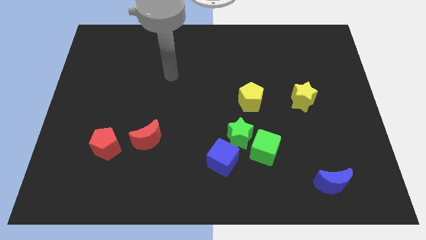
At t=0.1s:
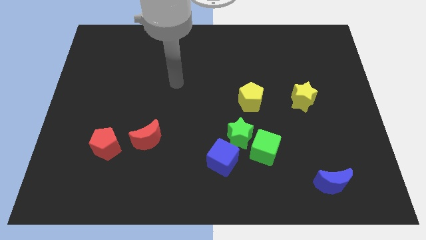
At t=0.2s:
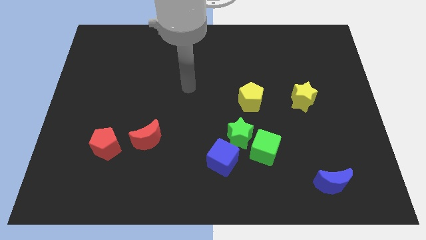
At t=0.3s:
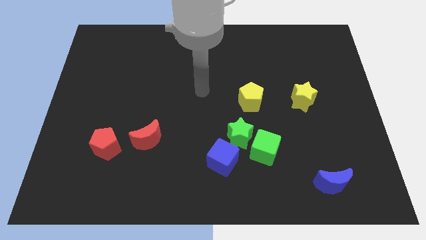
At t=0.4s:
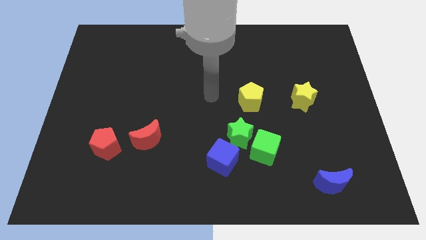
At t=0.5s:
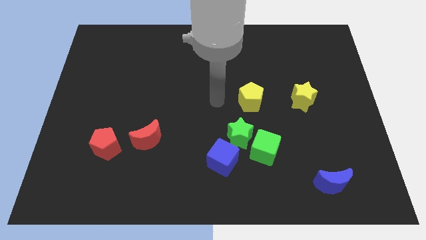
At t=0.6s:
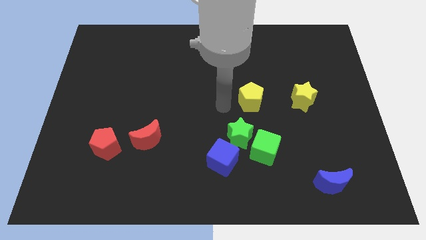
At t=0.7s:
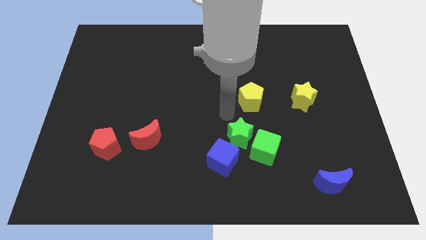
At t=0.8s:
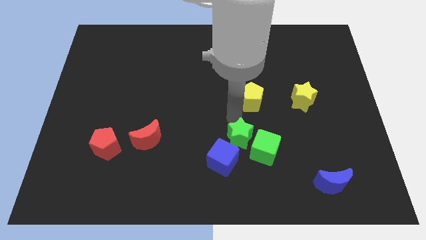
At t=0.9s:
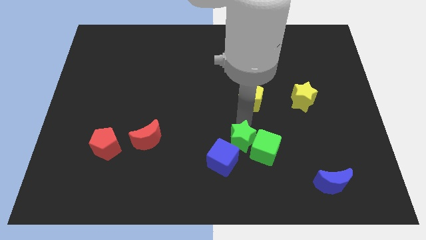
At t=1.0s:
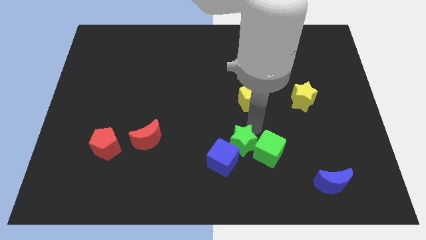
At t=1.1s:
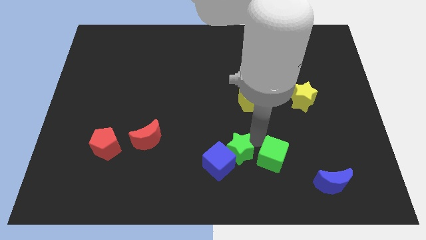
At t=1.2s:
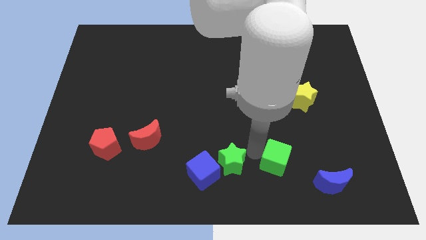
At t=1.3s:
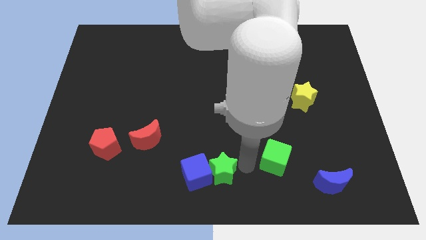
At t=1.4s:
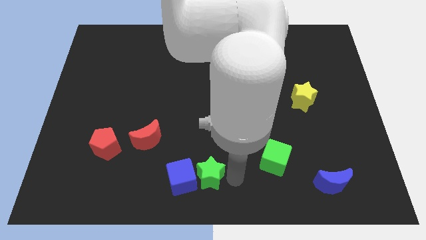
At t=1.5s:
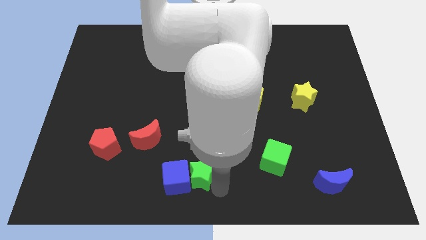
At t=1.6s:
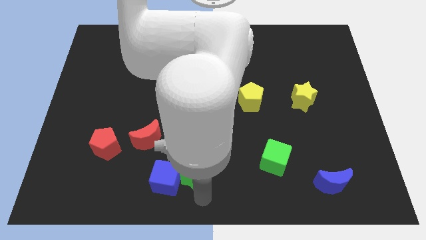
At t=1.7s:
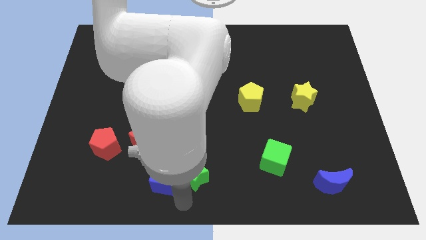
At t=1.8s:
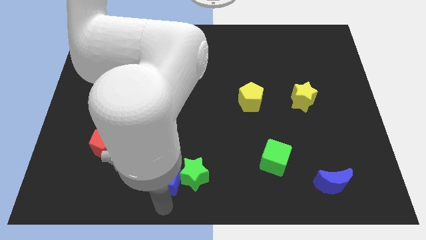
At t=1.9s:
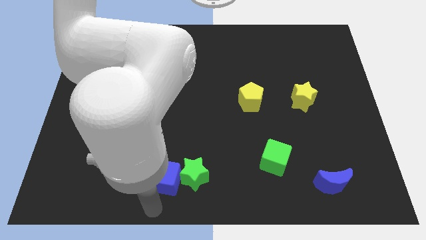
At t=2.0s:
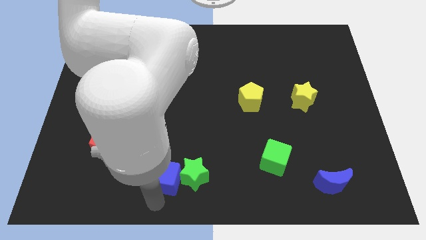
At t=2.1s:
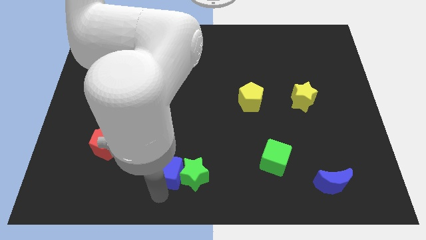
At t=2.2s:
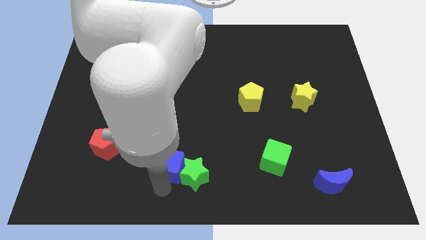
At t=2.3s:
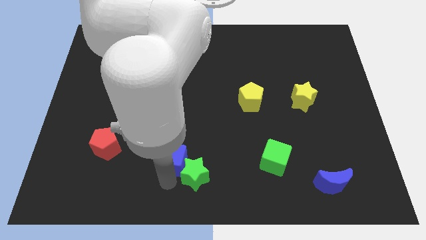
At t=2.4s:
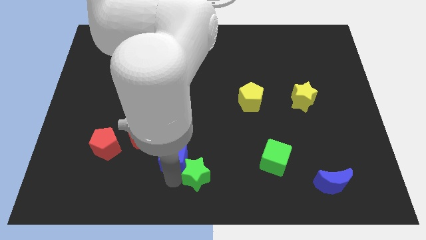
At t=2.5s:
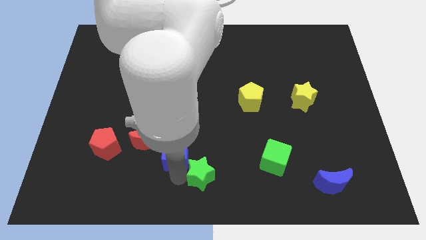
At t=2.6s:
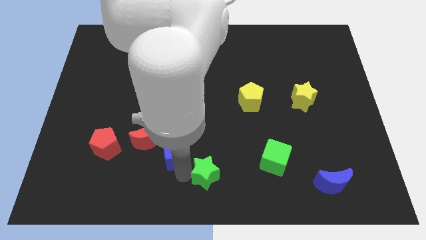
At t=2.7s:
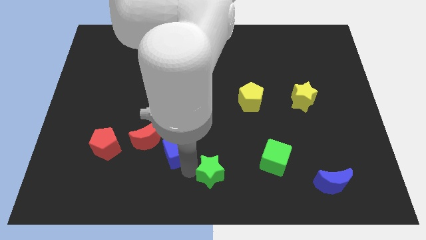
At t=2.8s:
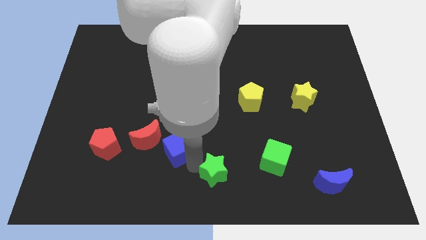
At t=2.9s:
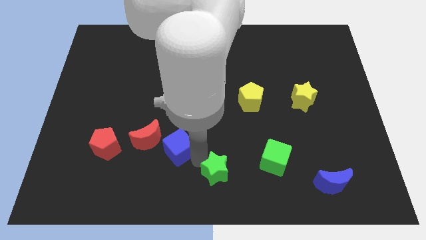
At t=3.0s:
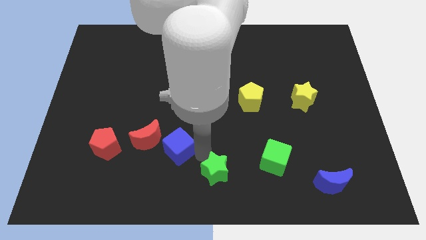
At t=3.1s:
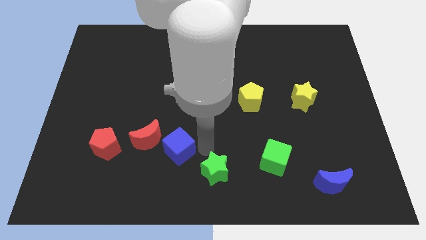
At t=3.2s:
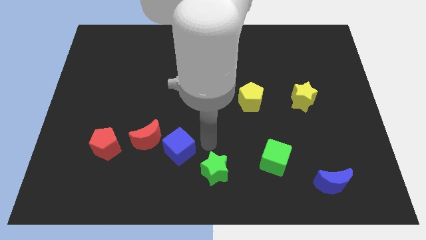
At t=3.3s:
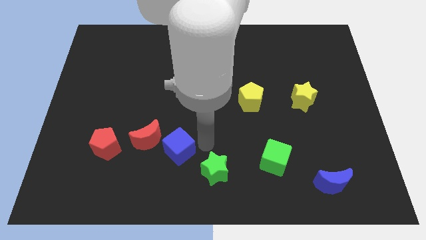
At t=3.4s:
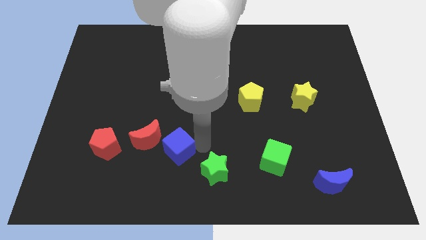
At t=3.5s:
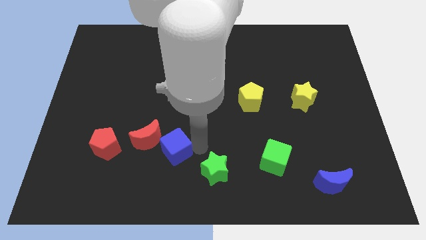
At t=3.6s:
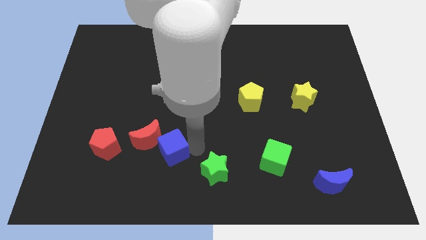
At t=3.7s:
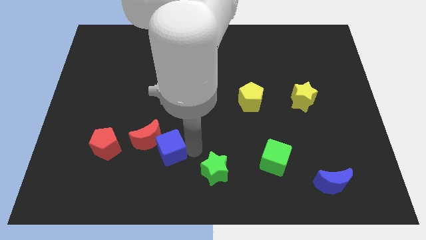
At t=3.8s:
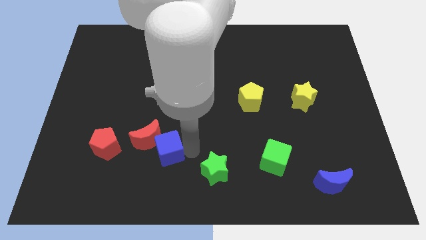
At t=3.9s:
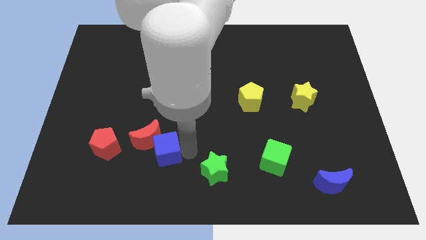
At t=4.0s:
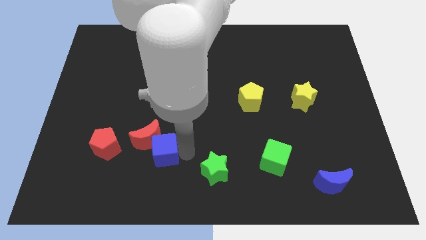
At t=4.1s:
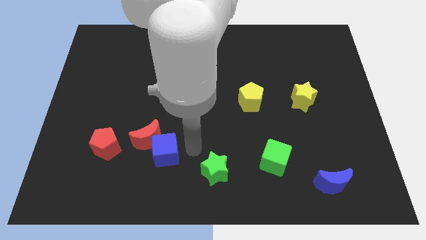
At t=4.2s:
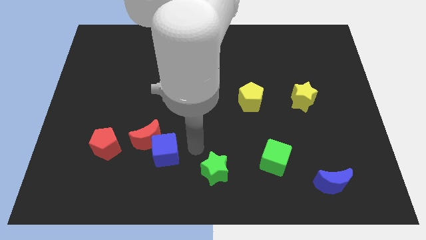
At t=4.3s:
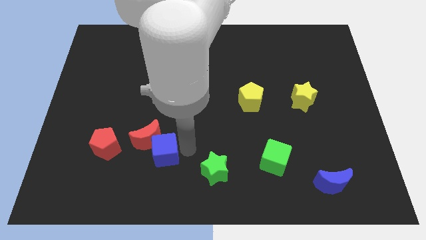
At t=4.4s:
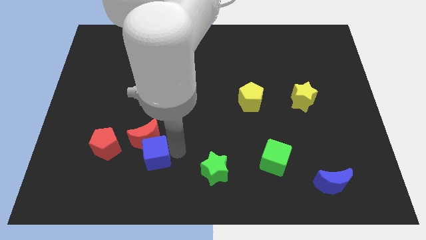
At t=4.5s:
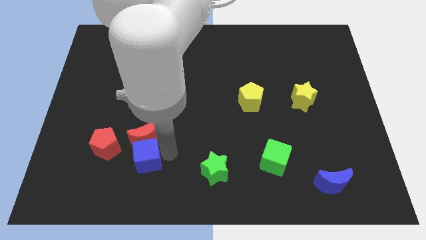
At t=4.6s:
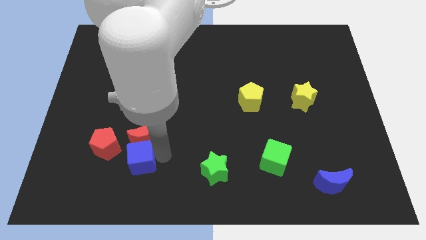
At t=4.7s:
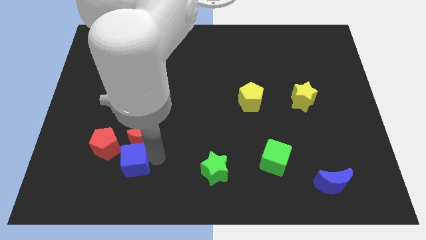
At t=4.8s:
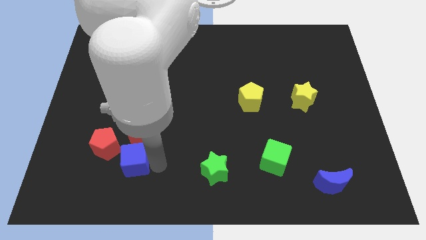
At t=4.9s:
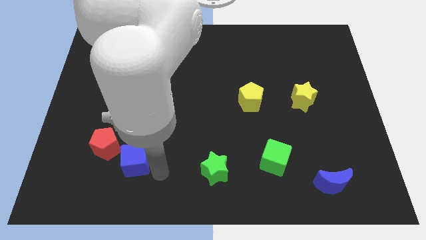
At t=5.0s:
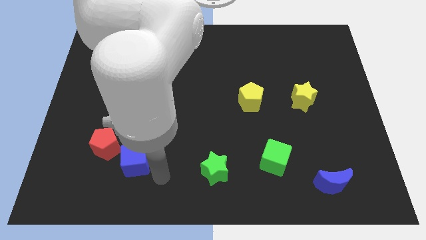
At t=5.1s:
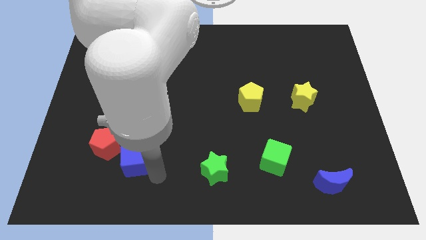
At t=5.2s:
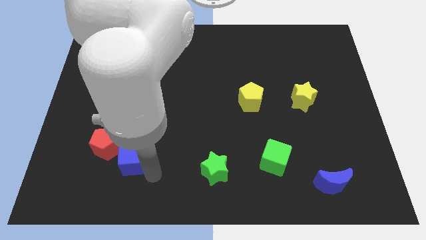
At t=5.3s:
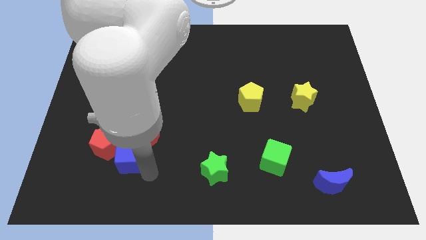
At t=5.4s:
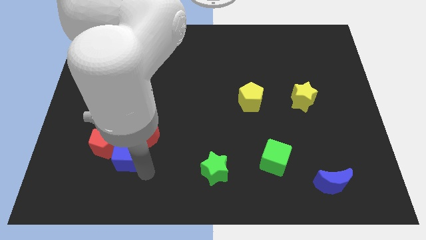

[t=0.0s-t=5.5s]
push the blue cube towards the red pentagon

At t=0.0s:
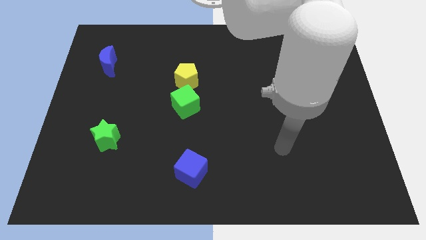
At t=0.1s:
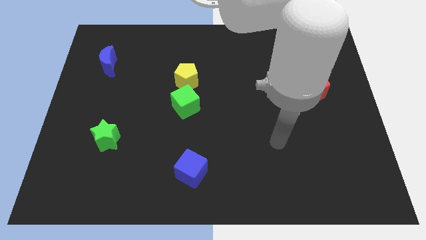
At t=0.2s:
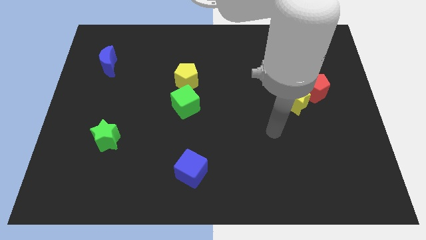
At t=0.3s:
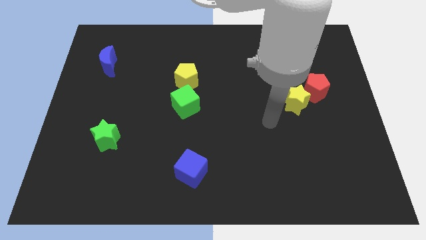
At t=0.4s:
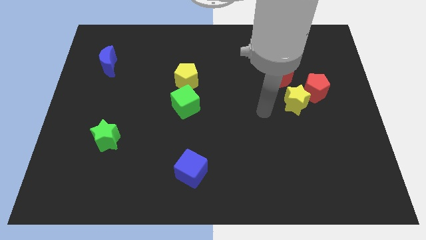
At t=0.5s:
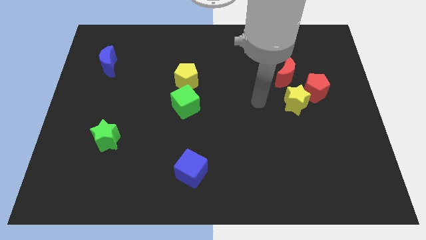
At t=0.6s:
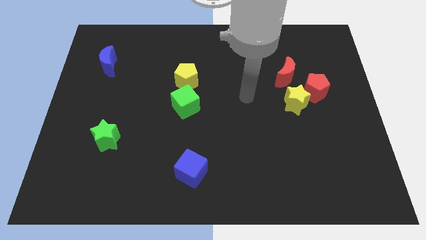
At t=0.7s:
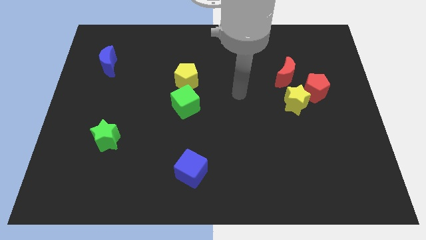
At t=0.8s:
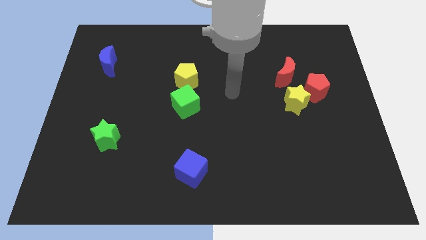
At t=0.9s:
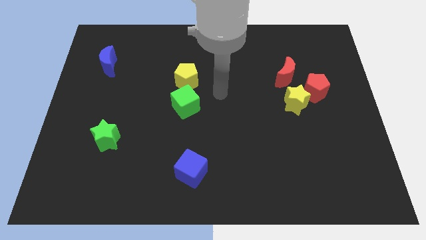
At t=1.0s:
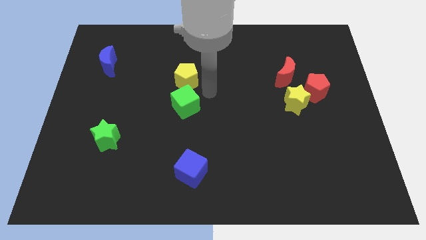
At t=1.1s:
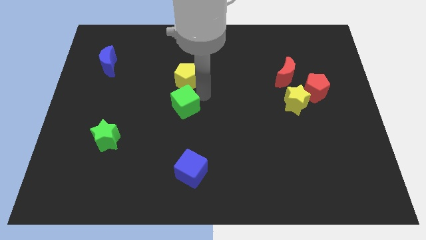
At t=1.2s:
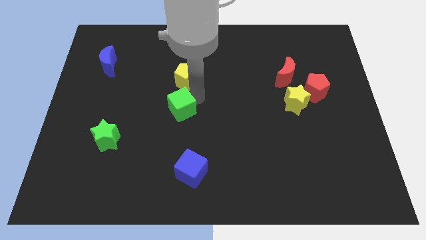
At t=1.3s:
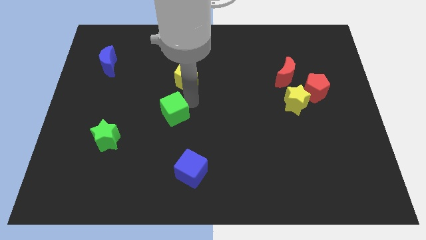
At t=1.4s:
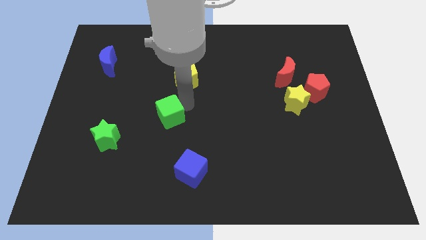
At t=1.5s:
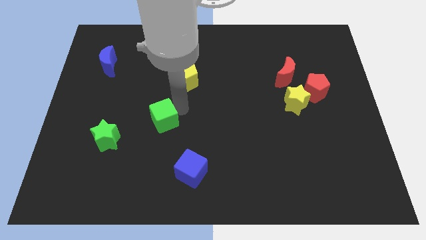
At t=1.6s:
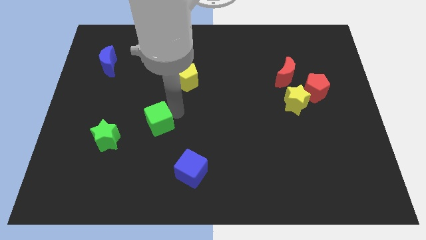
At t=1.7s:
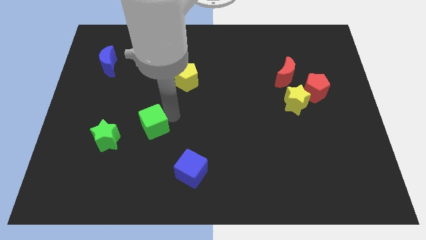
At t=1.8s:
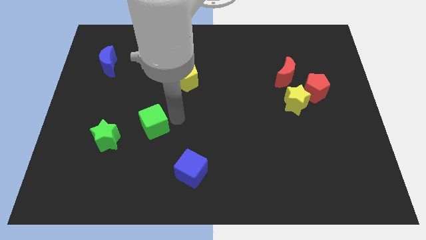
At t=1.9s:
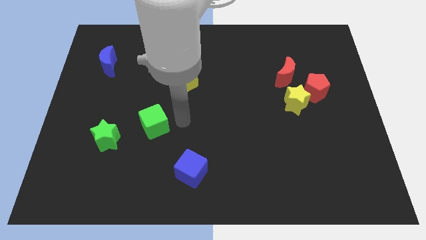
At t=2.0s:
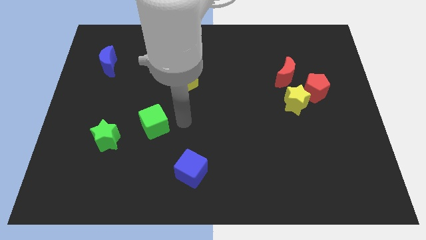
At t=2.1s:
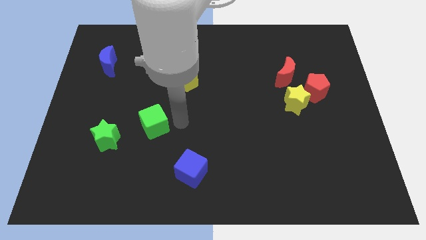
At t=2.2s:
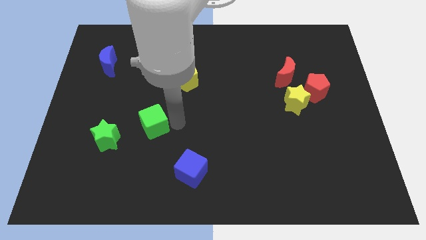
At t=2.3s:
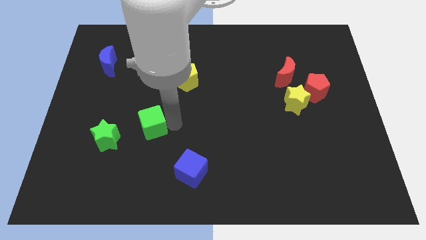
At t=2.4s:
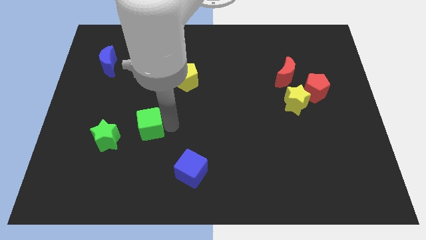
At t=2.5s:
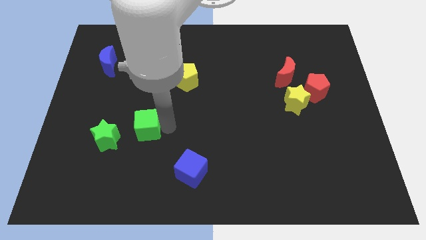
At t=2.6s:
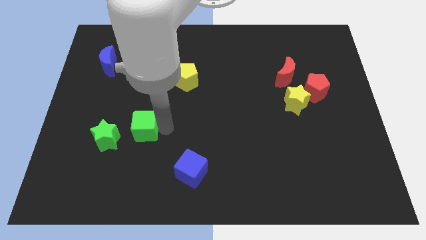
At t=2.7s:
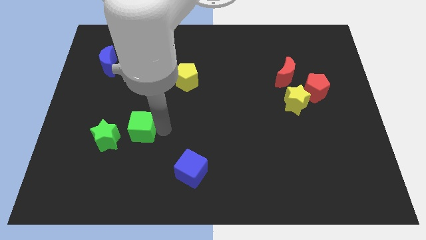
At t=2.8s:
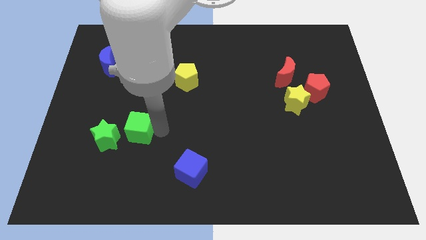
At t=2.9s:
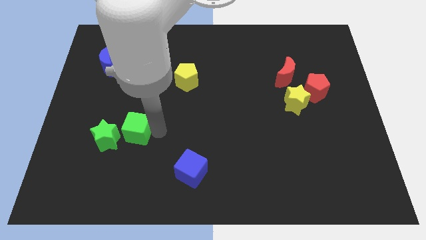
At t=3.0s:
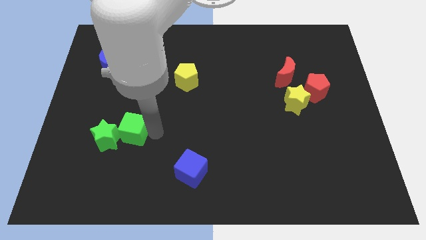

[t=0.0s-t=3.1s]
push the green cube next to the green star
